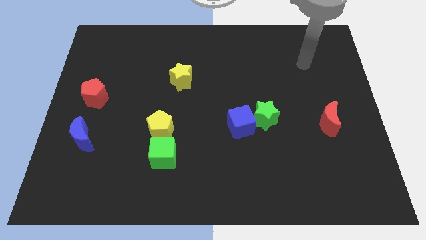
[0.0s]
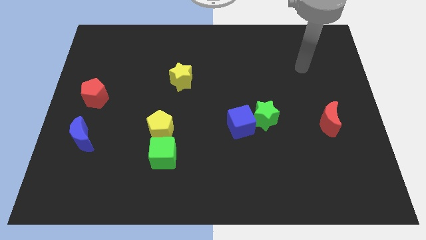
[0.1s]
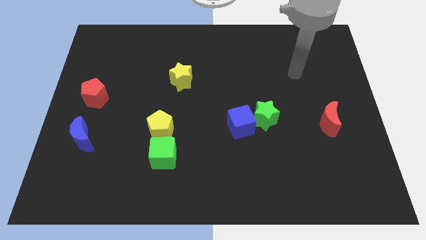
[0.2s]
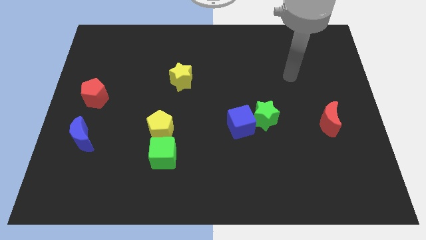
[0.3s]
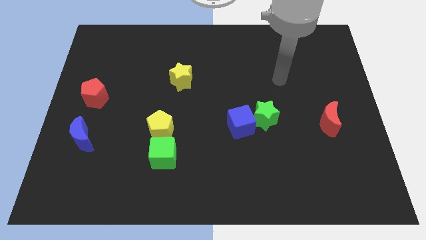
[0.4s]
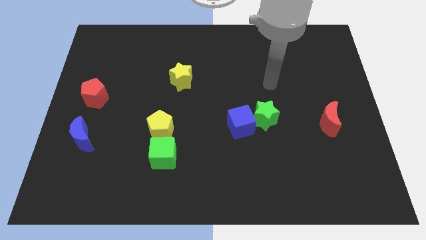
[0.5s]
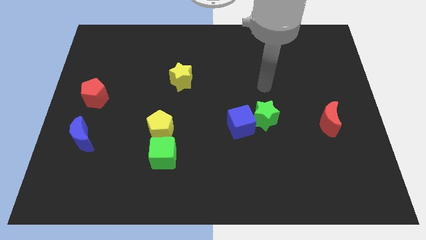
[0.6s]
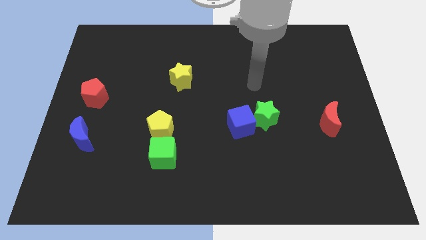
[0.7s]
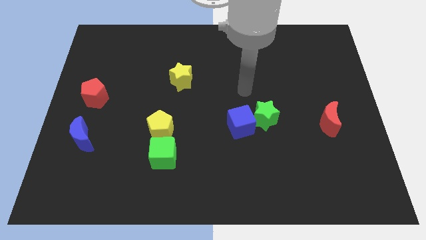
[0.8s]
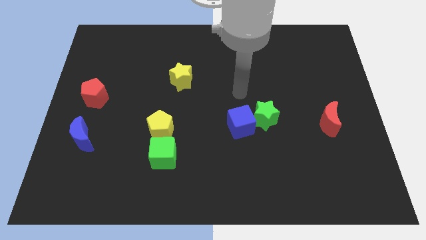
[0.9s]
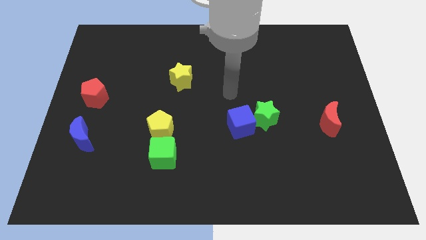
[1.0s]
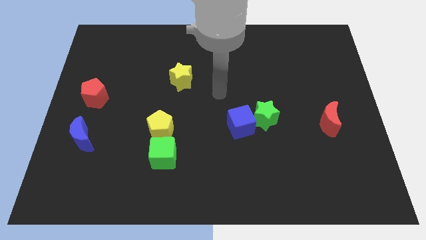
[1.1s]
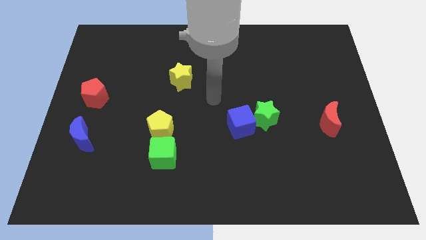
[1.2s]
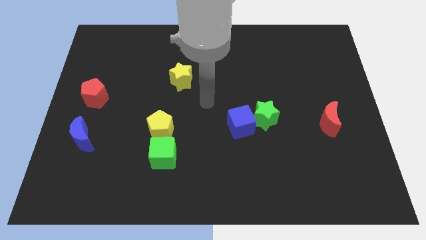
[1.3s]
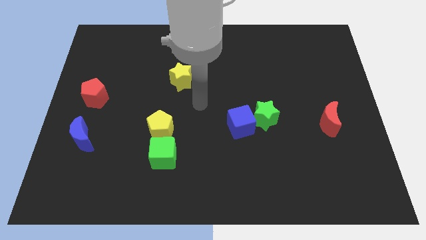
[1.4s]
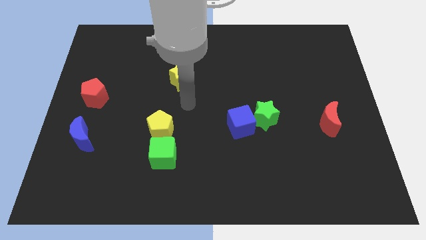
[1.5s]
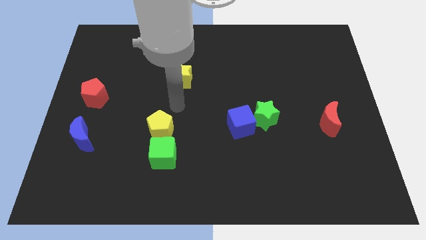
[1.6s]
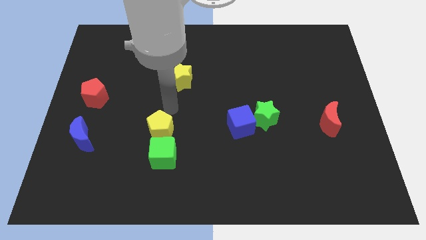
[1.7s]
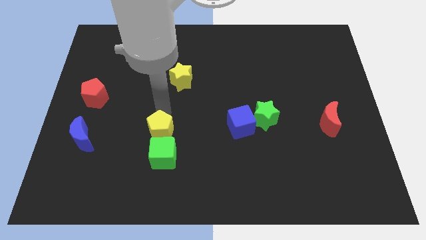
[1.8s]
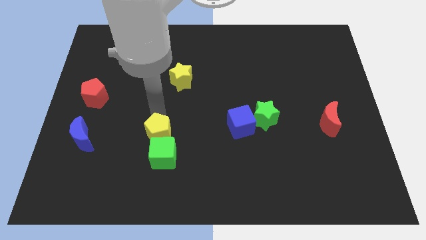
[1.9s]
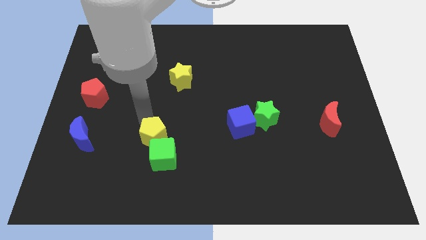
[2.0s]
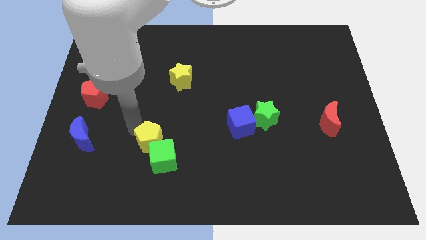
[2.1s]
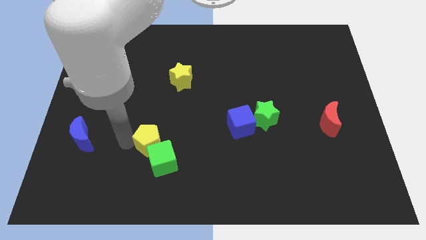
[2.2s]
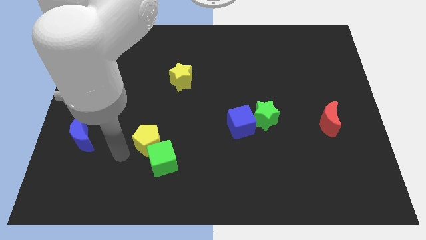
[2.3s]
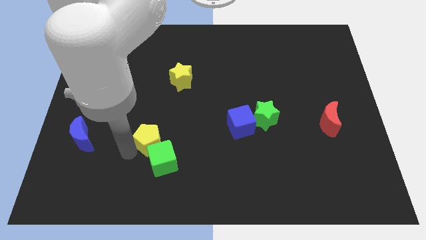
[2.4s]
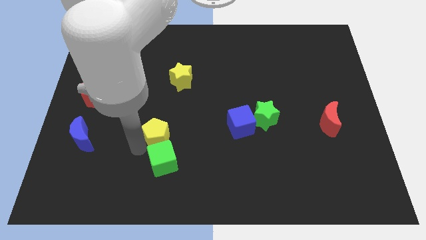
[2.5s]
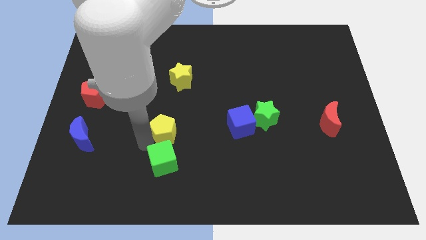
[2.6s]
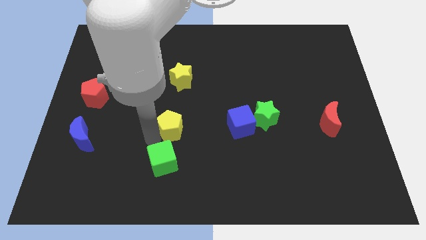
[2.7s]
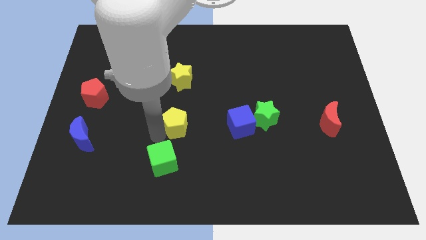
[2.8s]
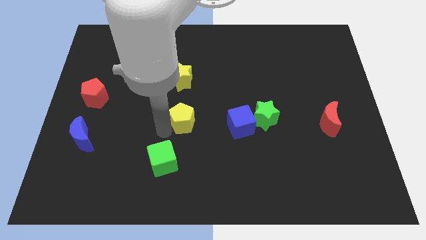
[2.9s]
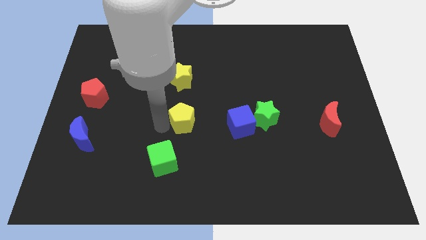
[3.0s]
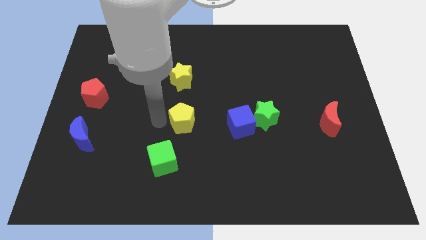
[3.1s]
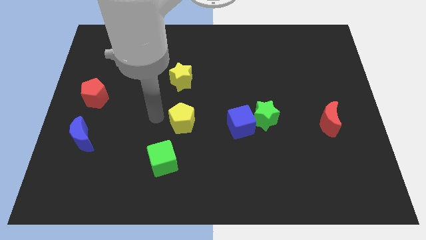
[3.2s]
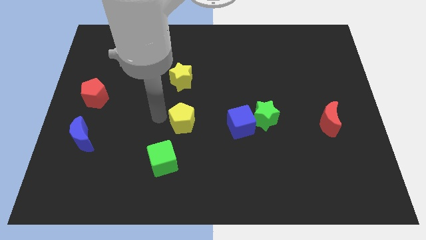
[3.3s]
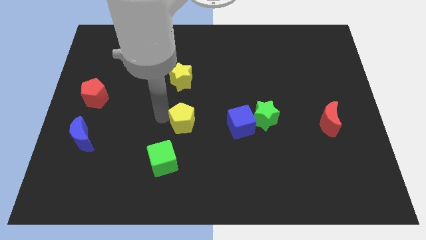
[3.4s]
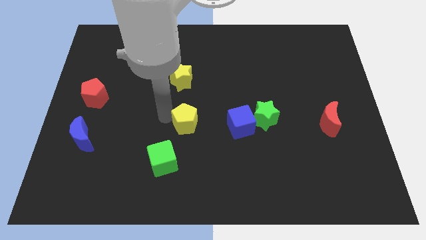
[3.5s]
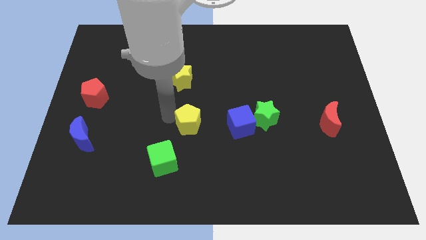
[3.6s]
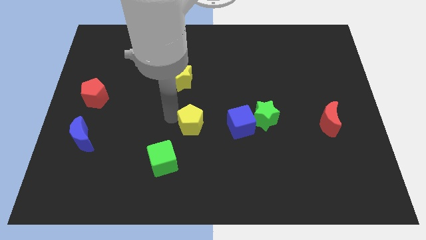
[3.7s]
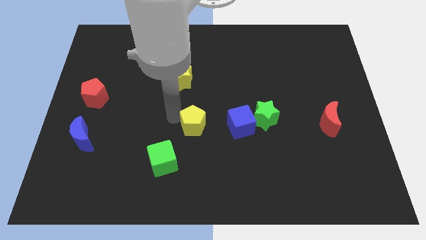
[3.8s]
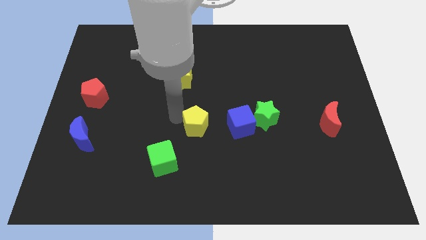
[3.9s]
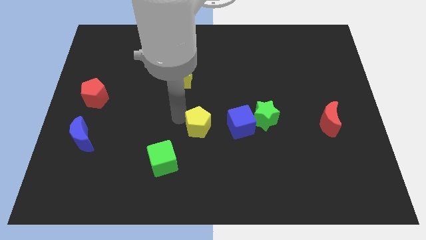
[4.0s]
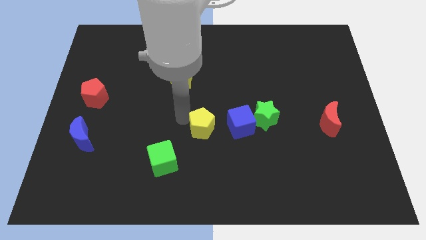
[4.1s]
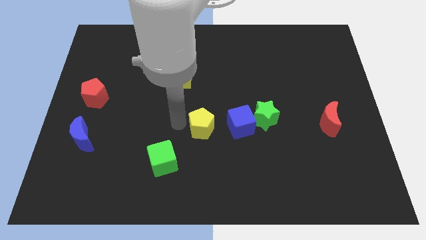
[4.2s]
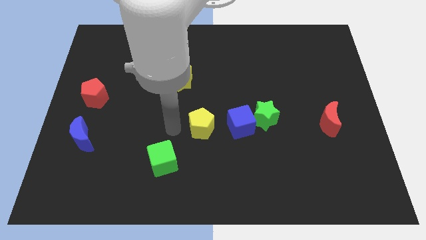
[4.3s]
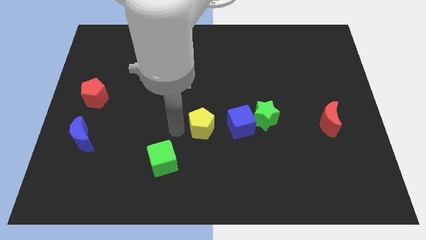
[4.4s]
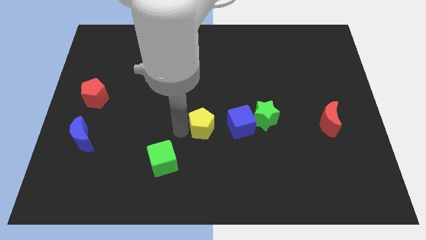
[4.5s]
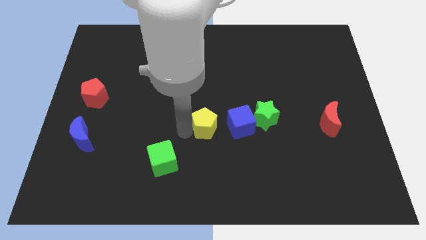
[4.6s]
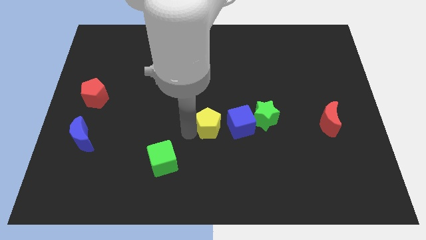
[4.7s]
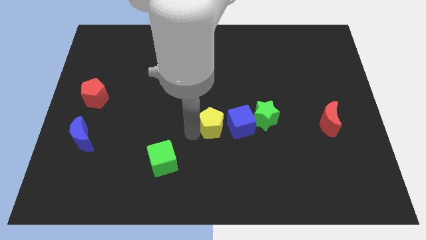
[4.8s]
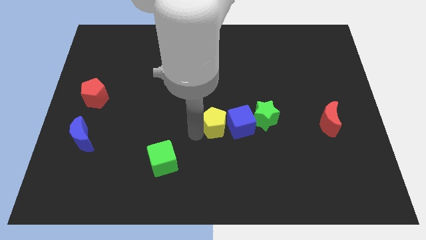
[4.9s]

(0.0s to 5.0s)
push the yellow pentagon next to the blue cube

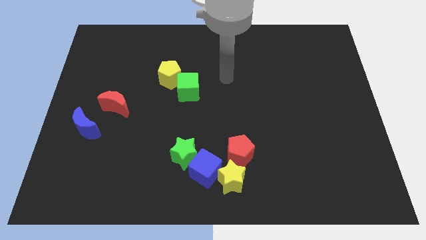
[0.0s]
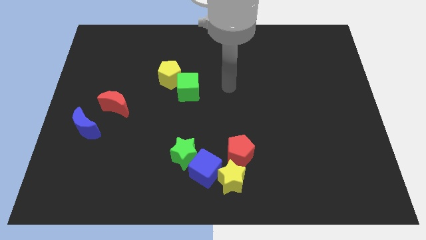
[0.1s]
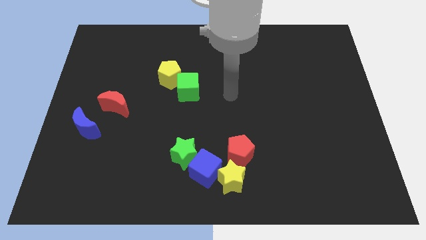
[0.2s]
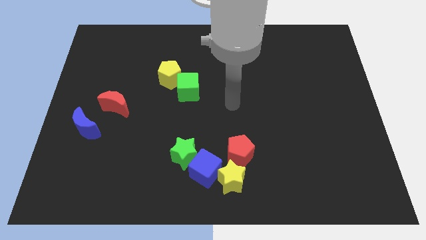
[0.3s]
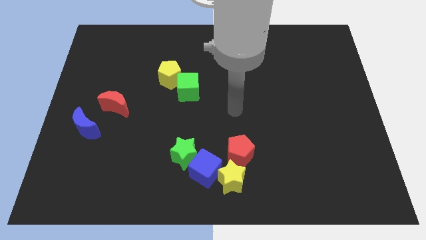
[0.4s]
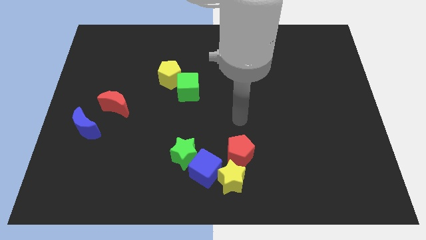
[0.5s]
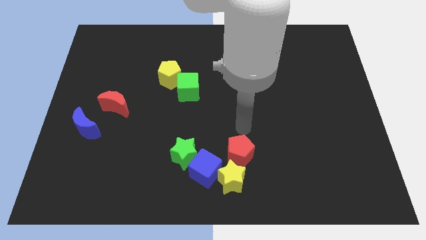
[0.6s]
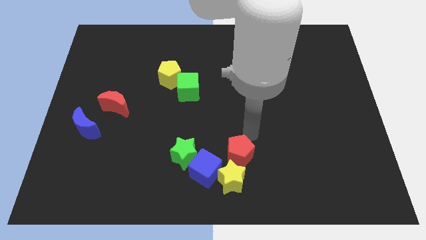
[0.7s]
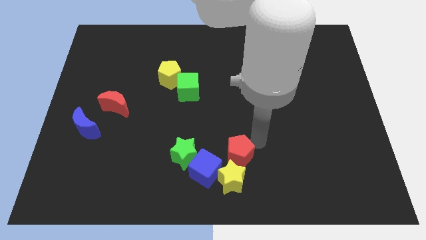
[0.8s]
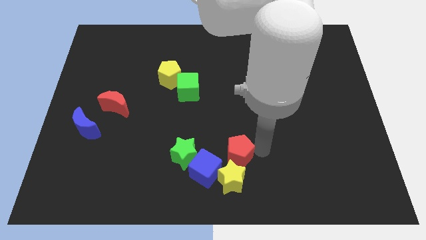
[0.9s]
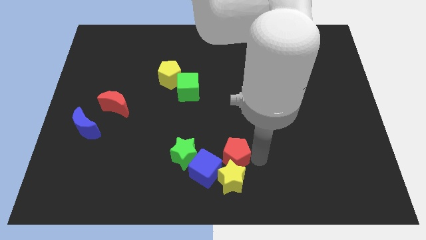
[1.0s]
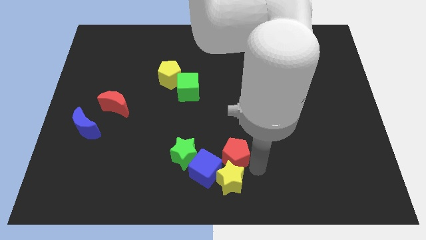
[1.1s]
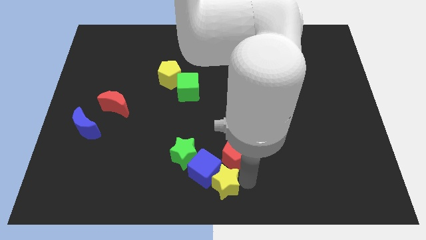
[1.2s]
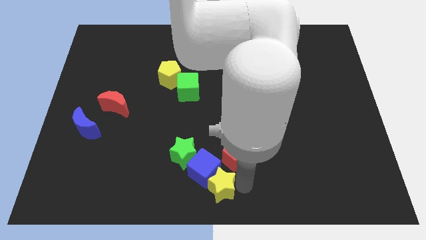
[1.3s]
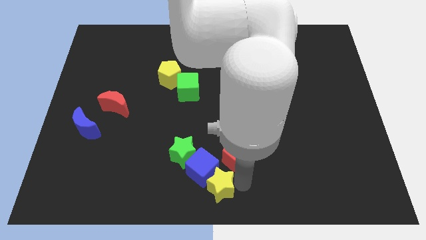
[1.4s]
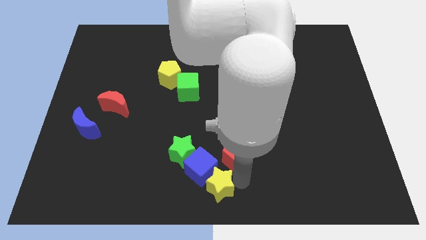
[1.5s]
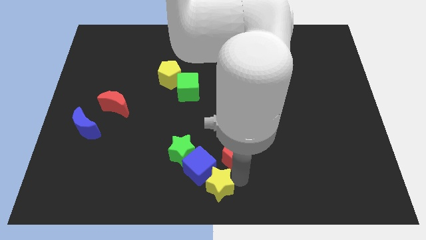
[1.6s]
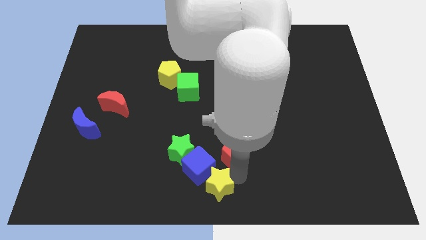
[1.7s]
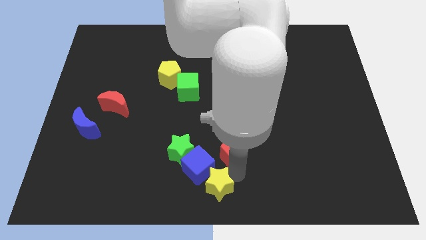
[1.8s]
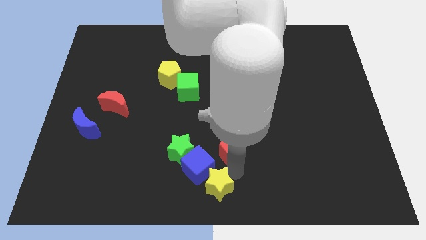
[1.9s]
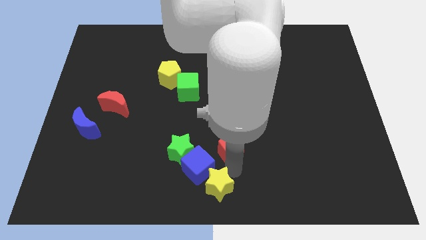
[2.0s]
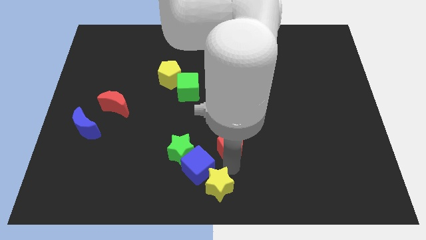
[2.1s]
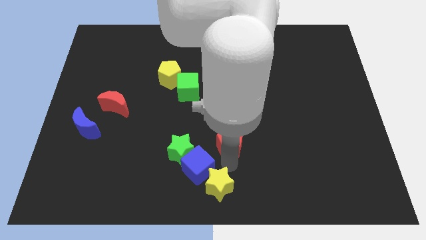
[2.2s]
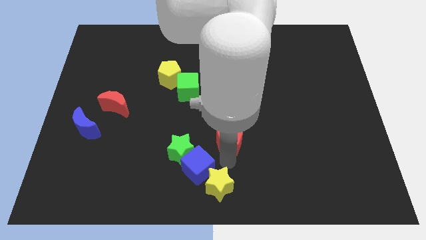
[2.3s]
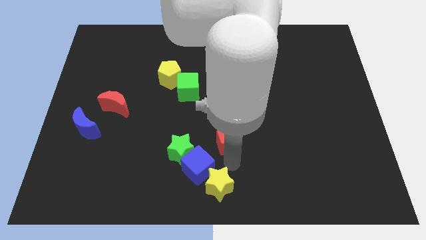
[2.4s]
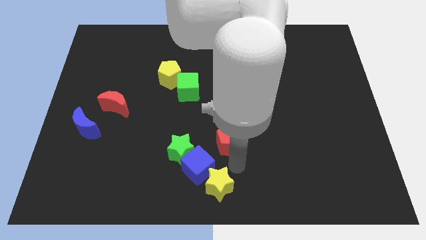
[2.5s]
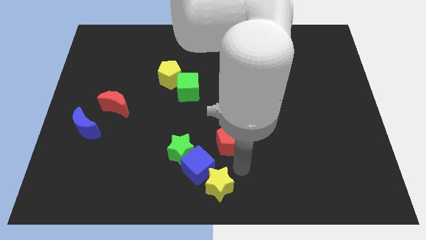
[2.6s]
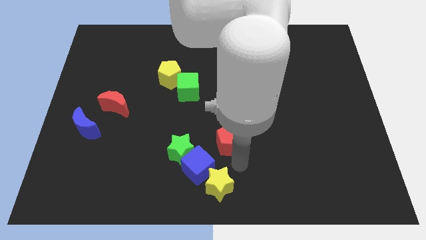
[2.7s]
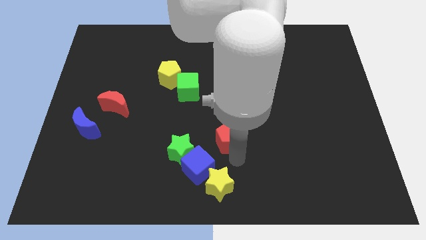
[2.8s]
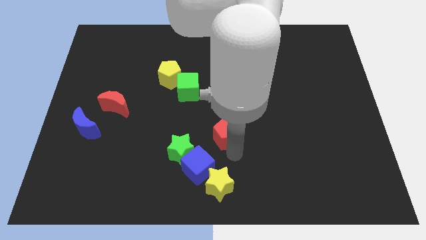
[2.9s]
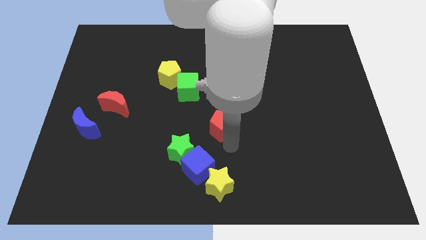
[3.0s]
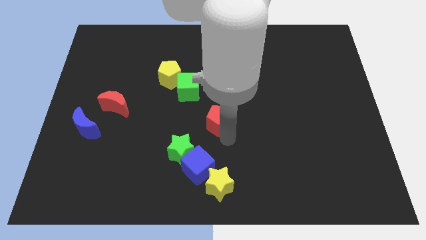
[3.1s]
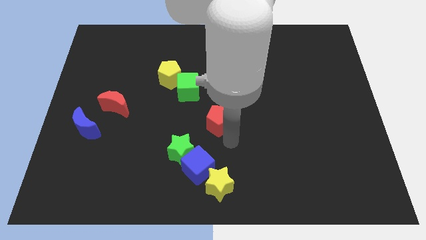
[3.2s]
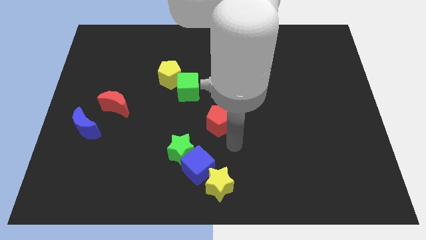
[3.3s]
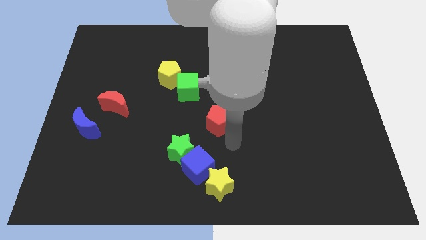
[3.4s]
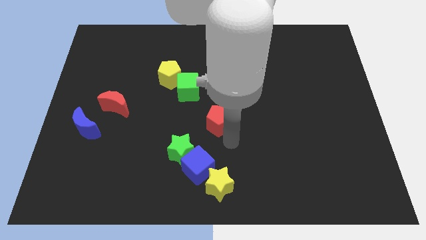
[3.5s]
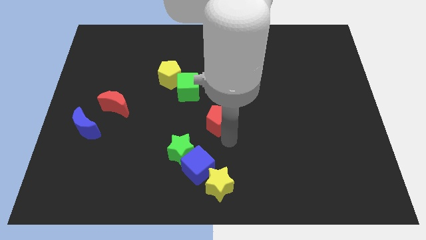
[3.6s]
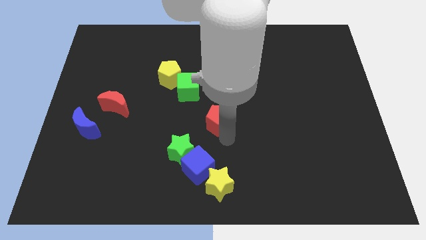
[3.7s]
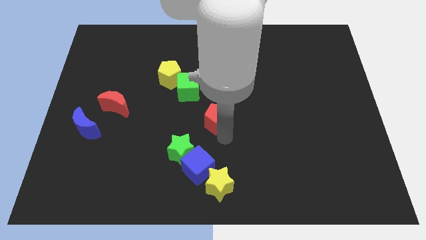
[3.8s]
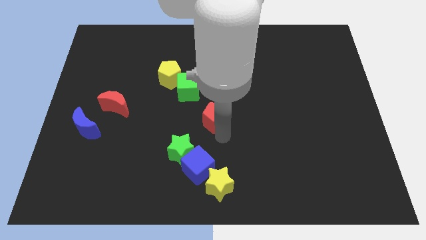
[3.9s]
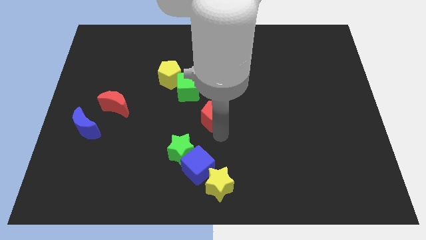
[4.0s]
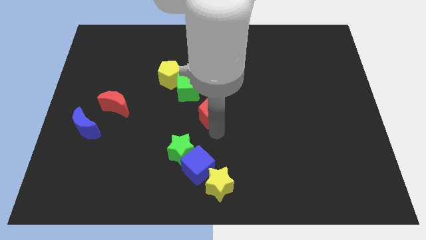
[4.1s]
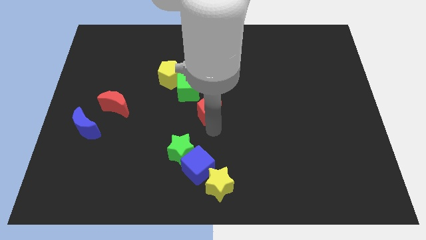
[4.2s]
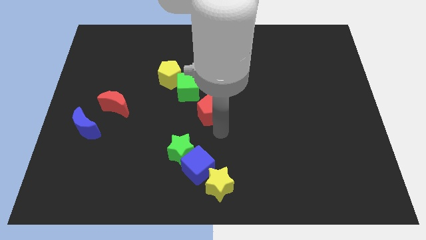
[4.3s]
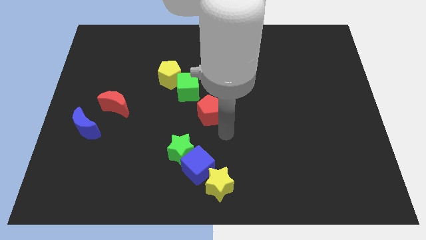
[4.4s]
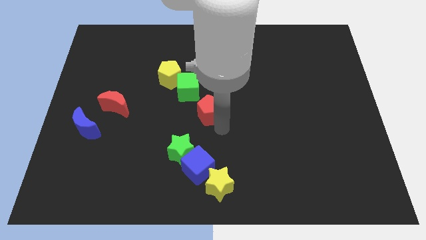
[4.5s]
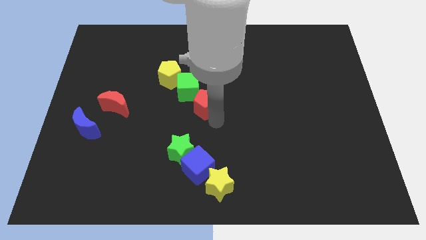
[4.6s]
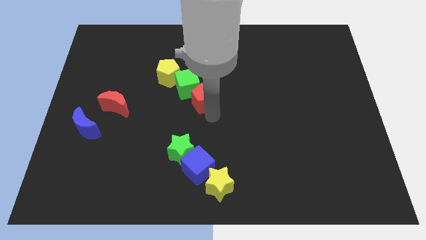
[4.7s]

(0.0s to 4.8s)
push the red pentagon next to the green cube
